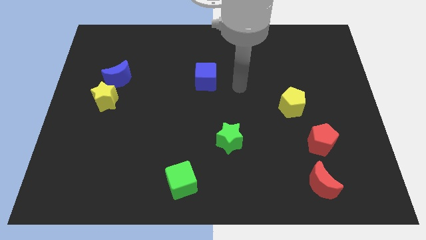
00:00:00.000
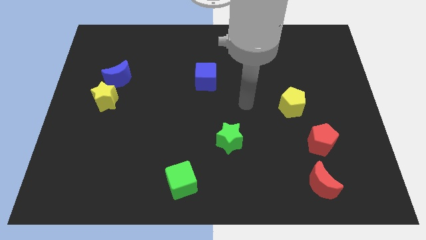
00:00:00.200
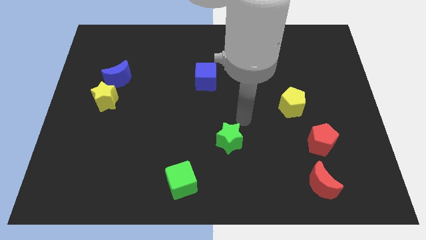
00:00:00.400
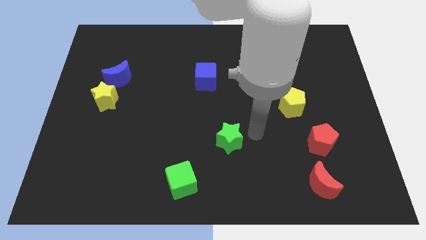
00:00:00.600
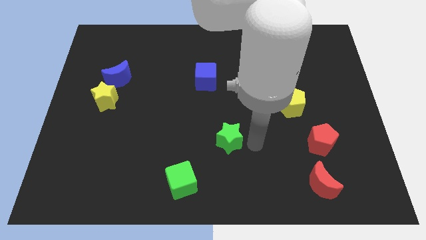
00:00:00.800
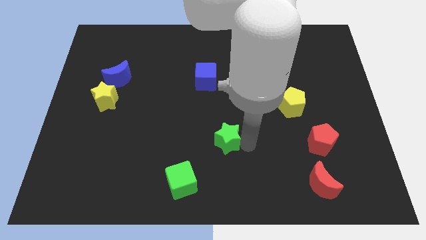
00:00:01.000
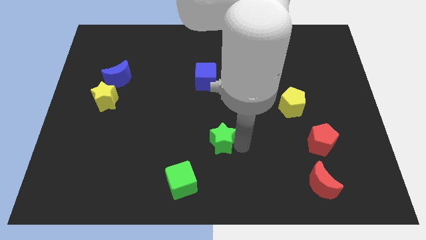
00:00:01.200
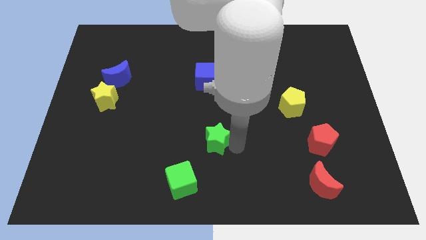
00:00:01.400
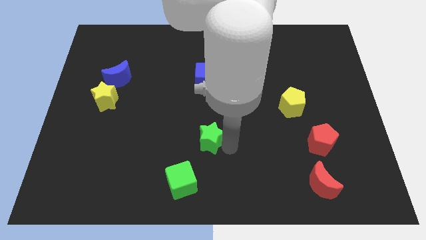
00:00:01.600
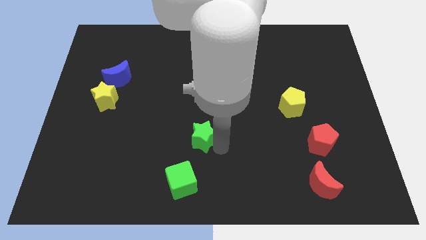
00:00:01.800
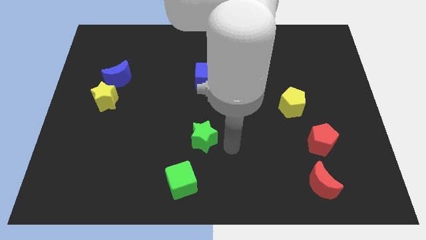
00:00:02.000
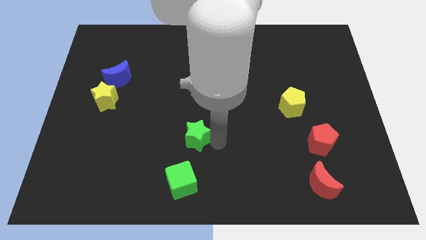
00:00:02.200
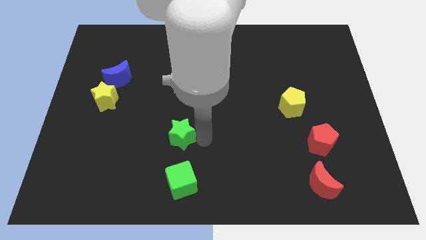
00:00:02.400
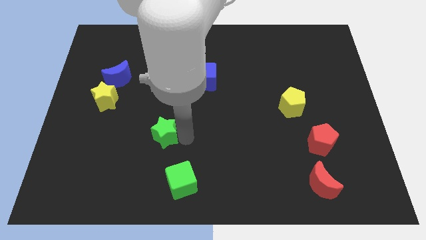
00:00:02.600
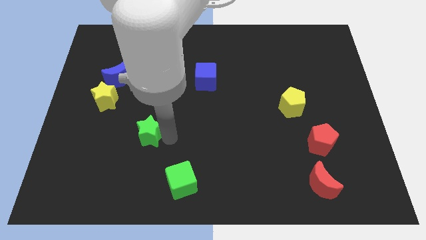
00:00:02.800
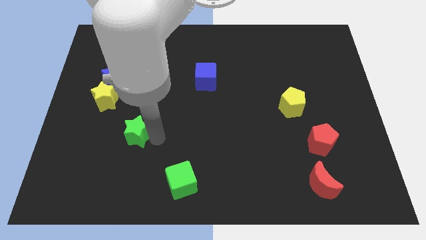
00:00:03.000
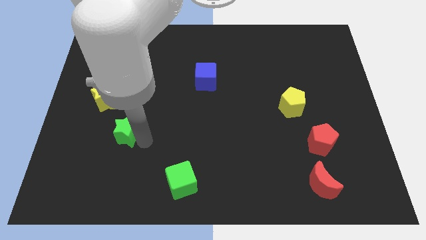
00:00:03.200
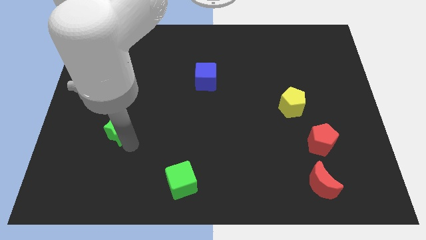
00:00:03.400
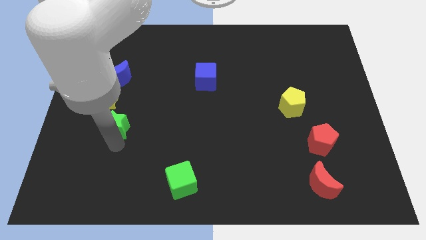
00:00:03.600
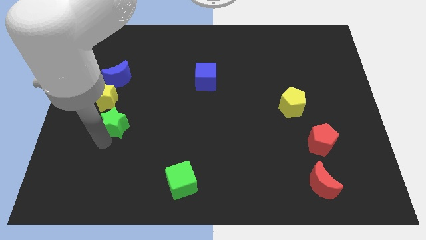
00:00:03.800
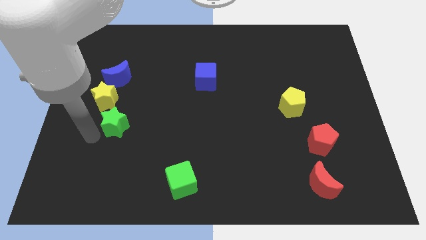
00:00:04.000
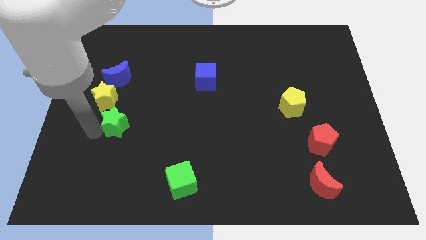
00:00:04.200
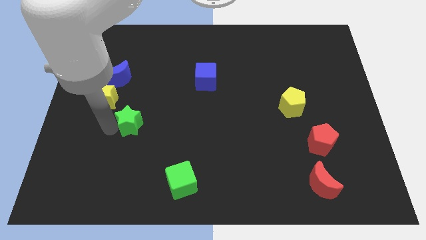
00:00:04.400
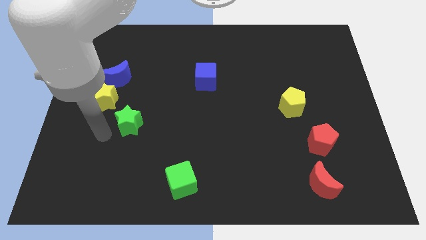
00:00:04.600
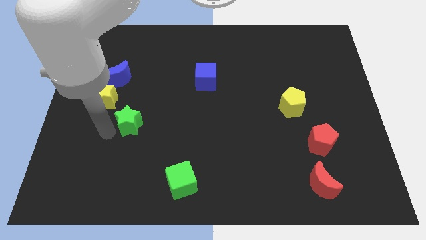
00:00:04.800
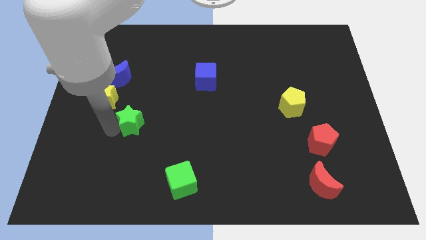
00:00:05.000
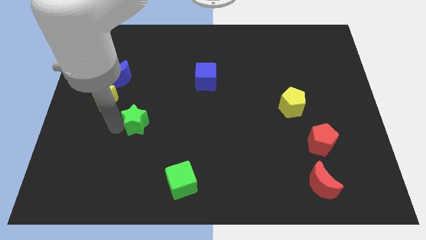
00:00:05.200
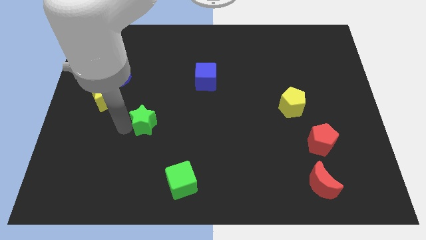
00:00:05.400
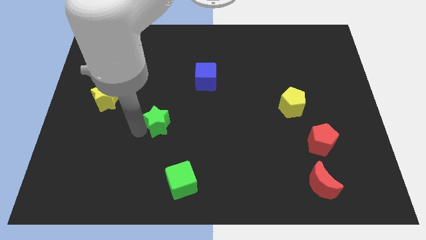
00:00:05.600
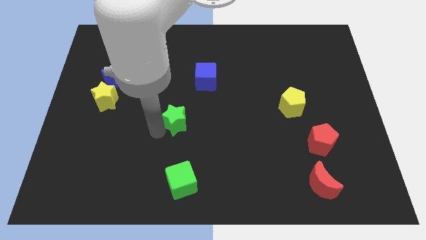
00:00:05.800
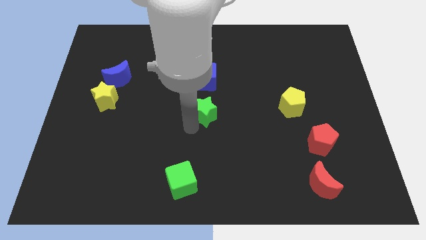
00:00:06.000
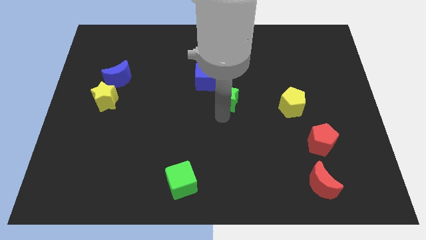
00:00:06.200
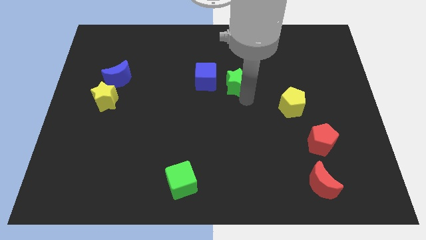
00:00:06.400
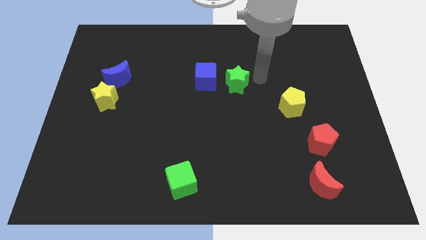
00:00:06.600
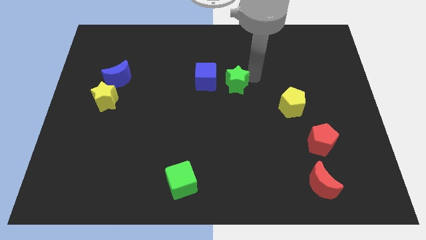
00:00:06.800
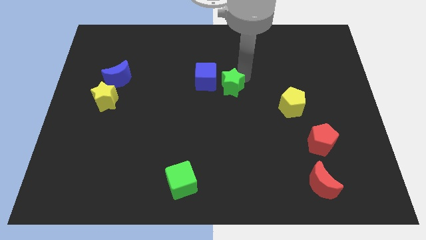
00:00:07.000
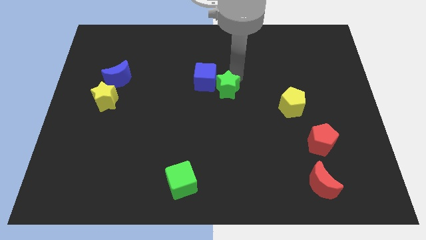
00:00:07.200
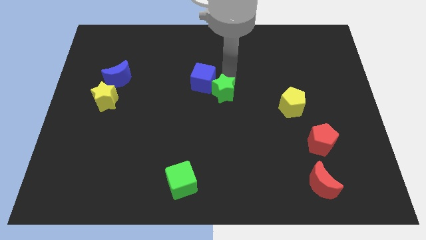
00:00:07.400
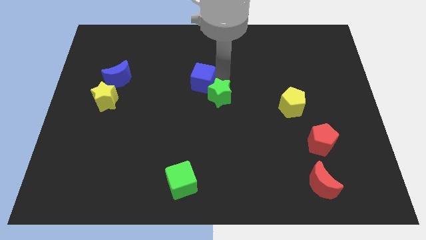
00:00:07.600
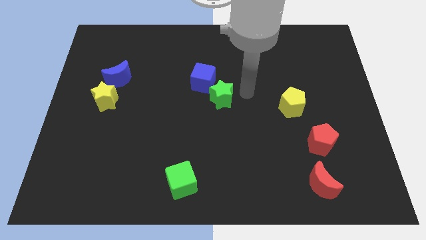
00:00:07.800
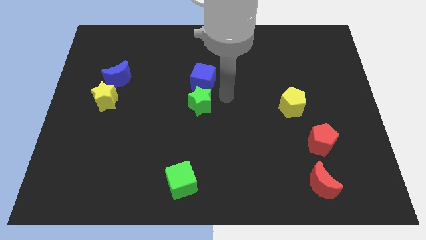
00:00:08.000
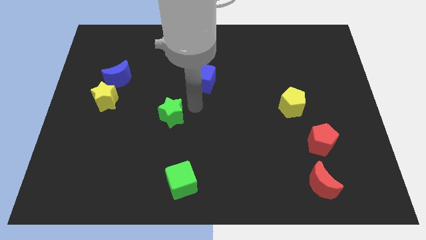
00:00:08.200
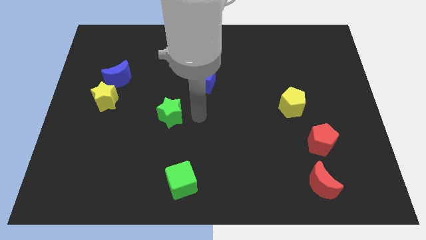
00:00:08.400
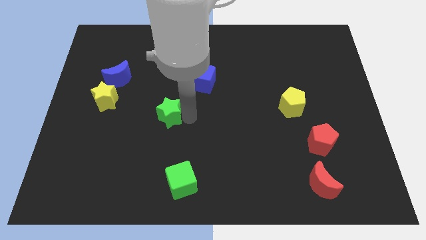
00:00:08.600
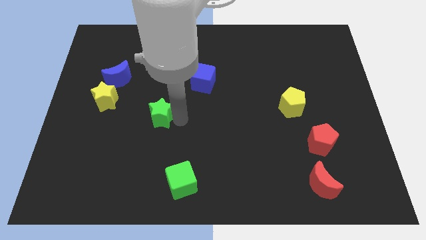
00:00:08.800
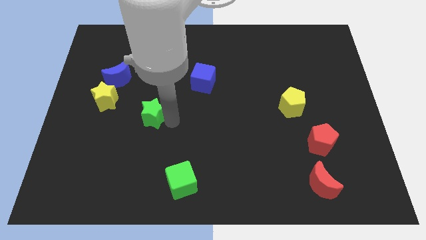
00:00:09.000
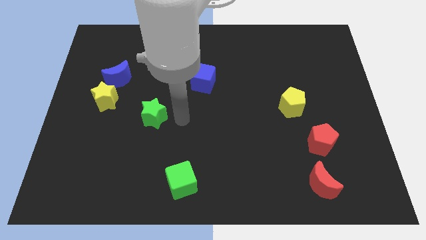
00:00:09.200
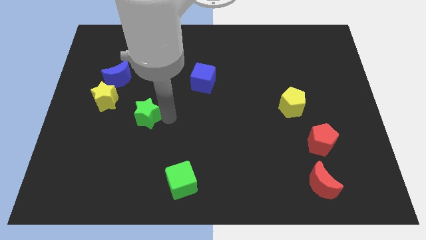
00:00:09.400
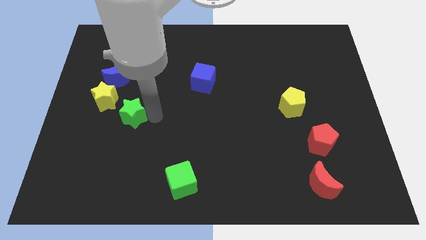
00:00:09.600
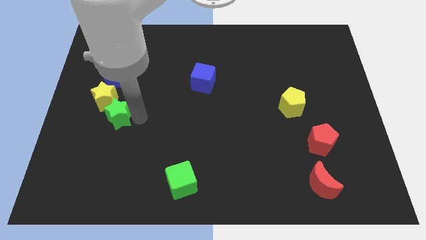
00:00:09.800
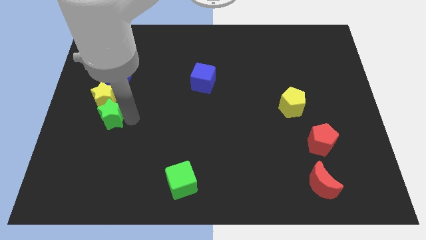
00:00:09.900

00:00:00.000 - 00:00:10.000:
push the green star towards the yellow star

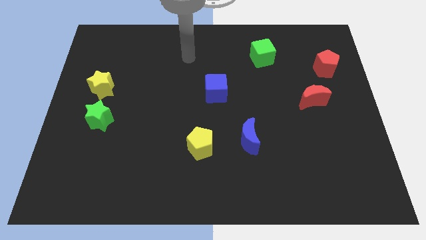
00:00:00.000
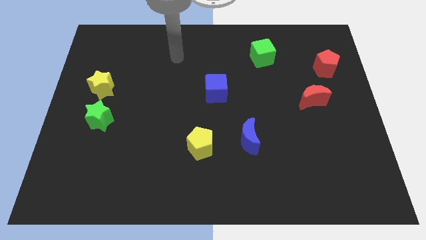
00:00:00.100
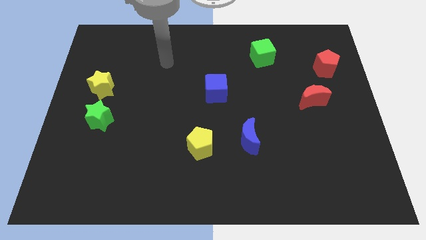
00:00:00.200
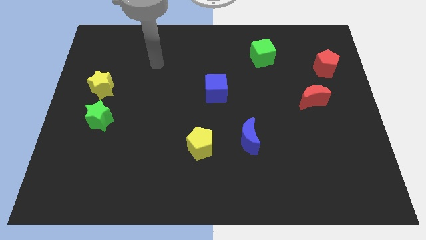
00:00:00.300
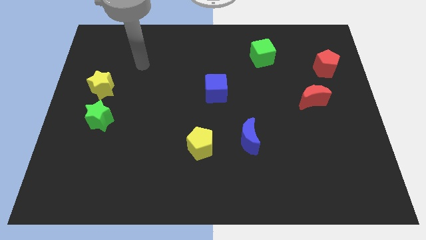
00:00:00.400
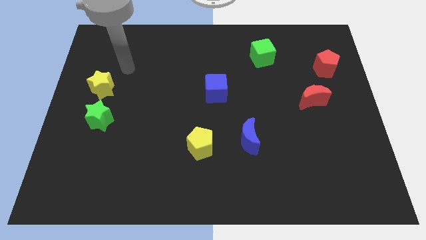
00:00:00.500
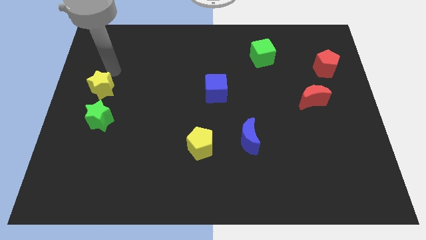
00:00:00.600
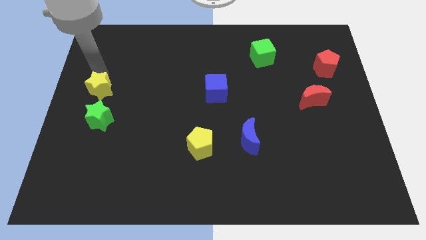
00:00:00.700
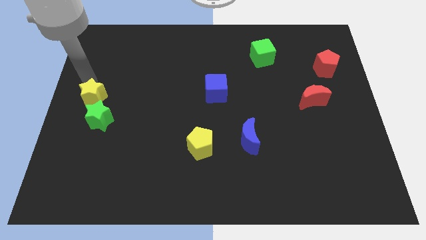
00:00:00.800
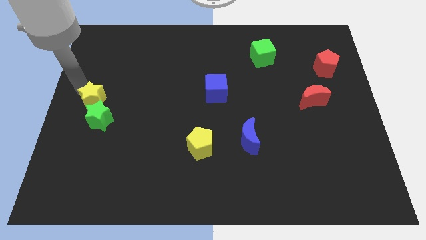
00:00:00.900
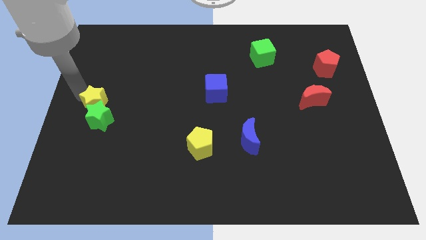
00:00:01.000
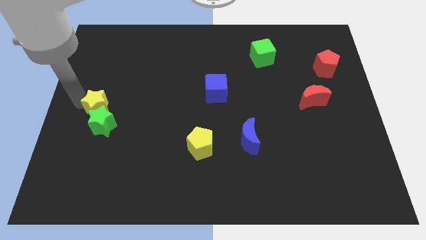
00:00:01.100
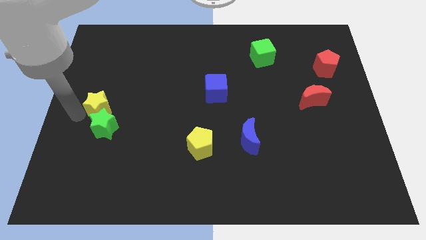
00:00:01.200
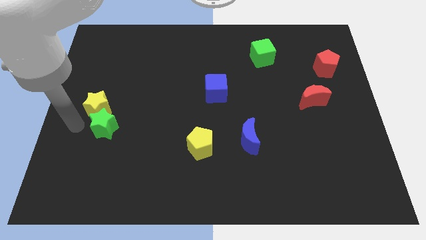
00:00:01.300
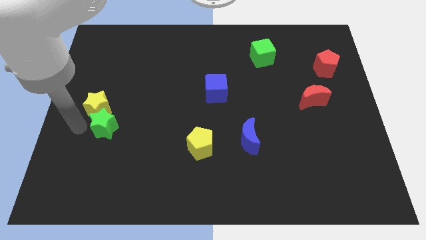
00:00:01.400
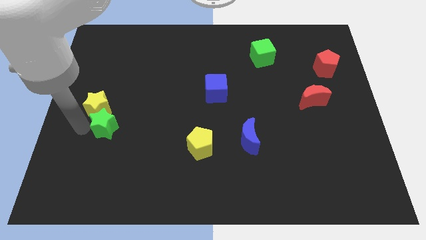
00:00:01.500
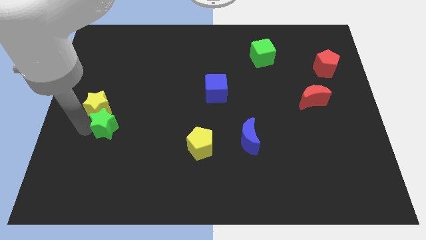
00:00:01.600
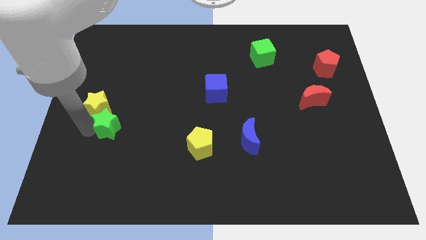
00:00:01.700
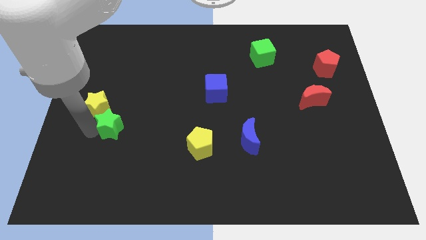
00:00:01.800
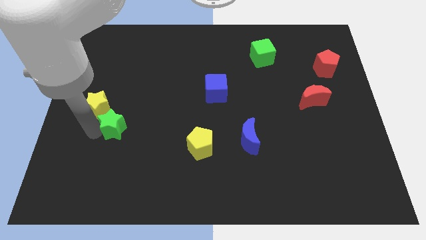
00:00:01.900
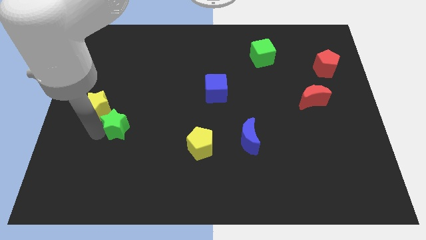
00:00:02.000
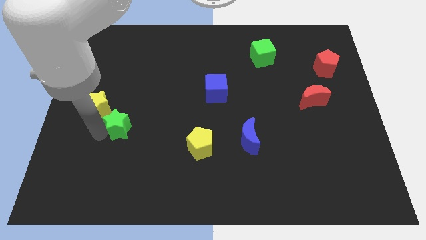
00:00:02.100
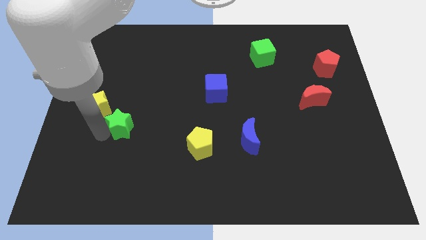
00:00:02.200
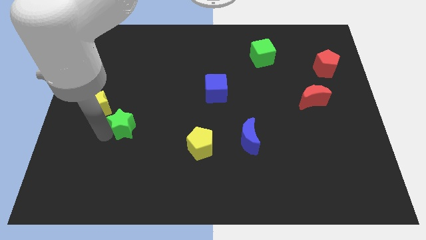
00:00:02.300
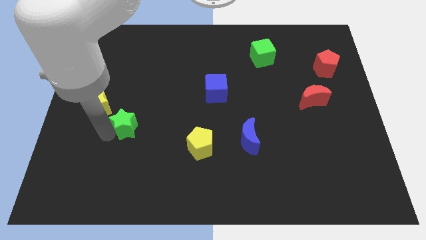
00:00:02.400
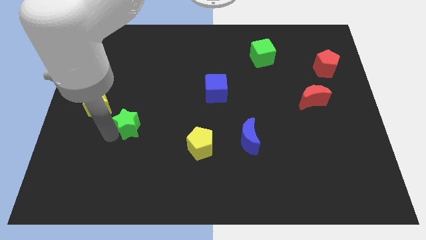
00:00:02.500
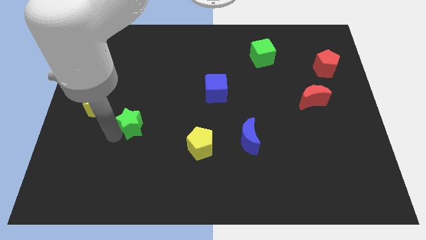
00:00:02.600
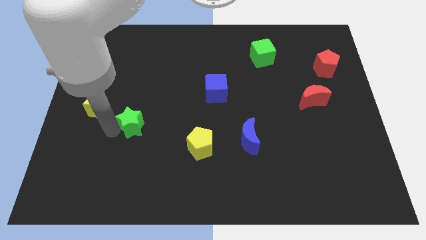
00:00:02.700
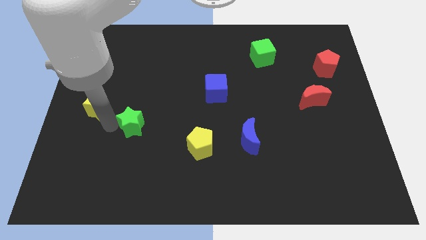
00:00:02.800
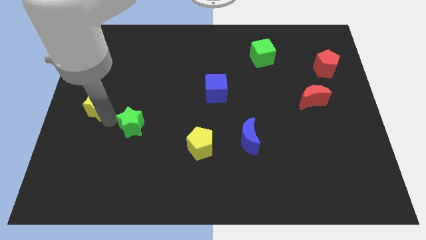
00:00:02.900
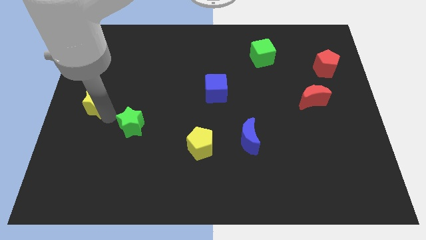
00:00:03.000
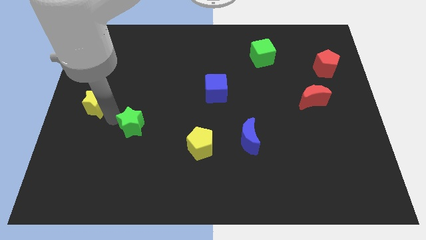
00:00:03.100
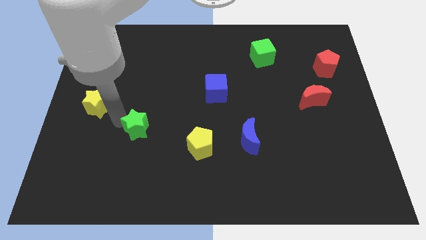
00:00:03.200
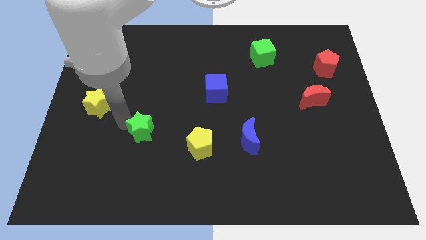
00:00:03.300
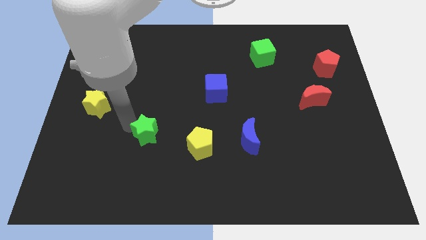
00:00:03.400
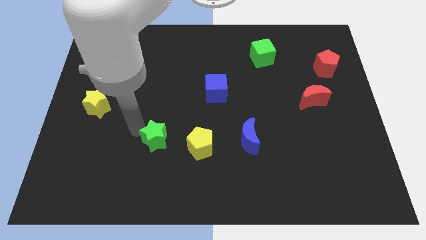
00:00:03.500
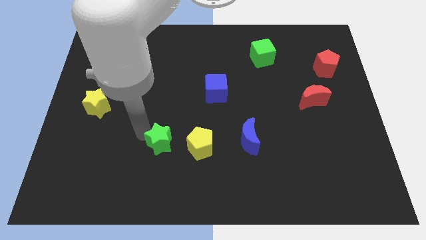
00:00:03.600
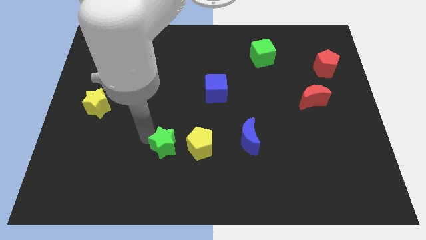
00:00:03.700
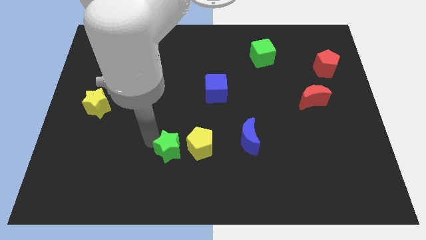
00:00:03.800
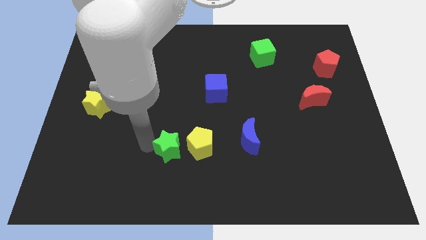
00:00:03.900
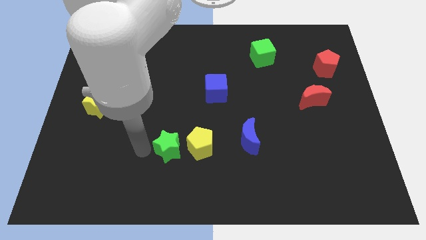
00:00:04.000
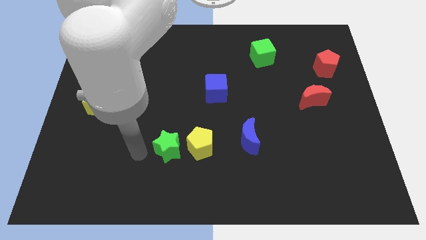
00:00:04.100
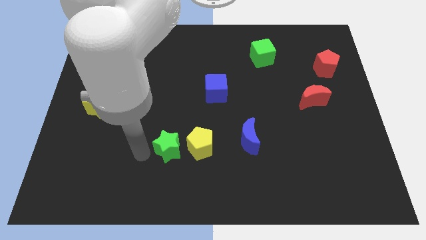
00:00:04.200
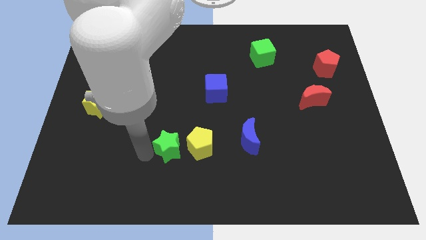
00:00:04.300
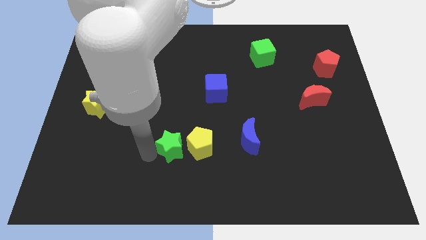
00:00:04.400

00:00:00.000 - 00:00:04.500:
move the green star towards the yellow pentagon
